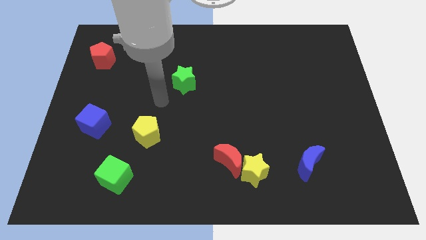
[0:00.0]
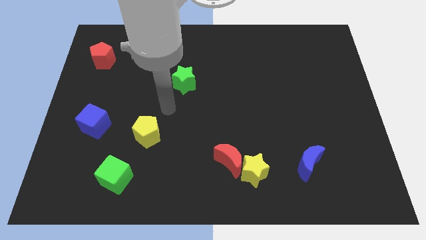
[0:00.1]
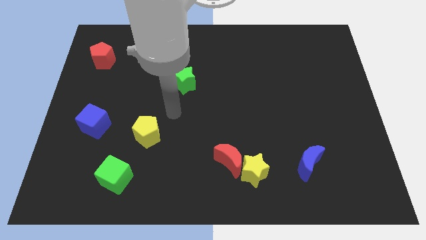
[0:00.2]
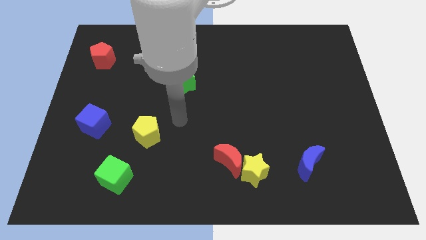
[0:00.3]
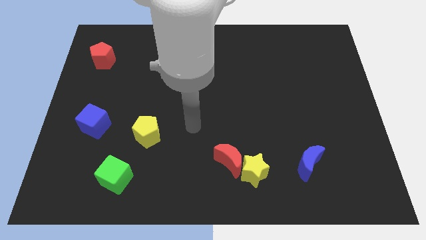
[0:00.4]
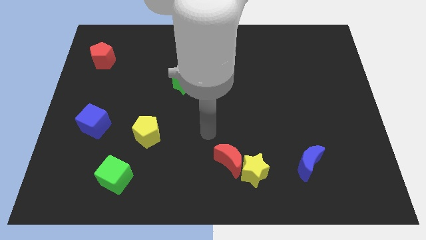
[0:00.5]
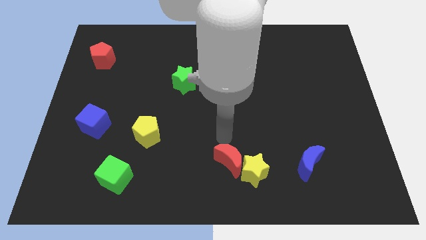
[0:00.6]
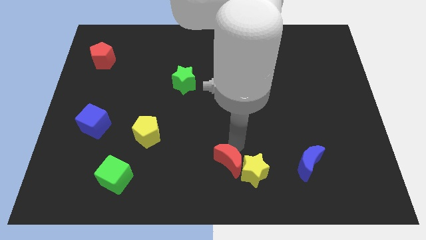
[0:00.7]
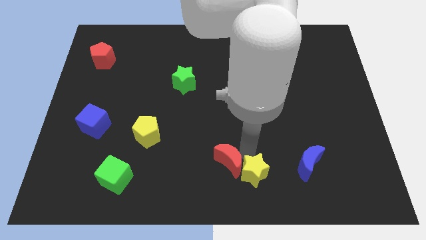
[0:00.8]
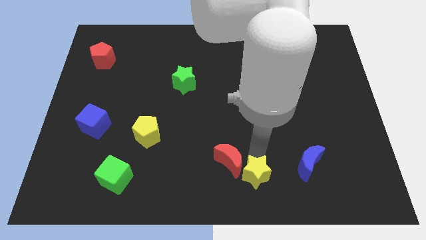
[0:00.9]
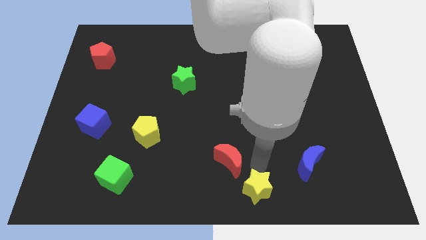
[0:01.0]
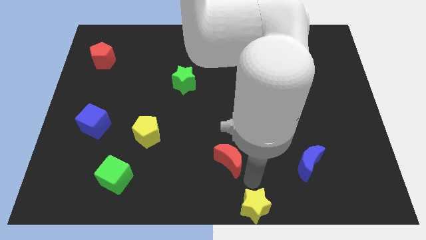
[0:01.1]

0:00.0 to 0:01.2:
pull the red moon apart from the yellow star

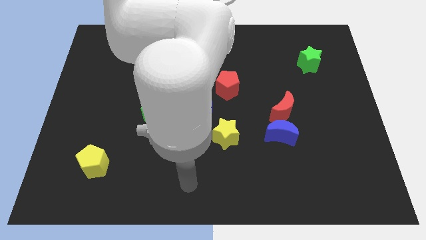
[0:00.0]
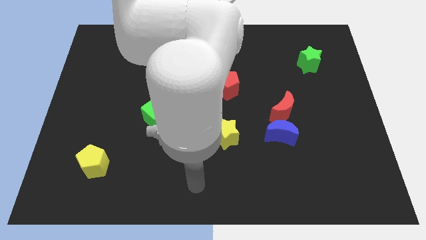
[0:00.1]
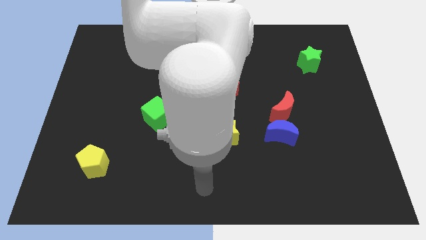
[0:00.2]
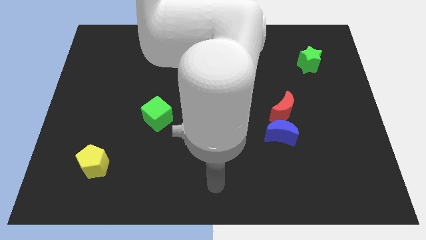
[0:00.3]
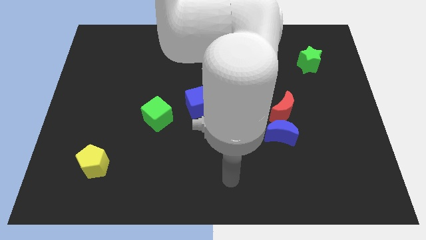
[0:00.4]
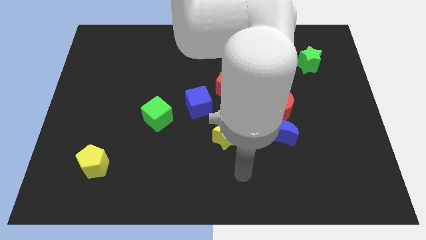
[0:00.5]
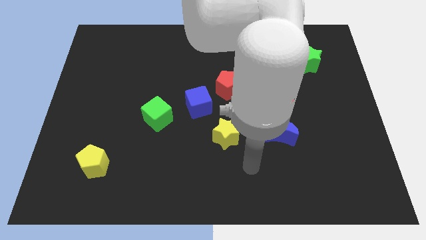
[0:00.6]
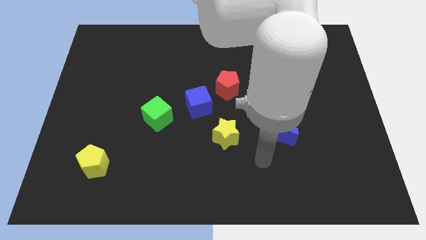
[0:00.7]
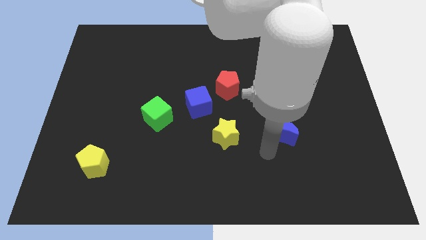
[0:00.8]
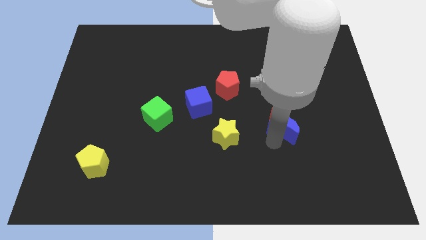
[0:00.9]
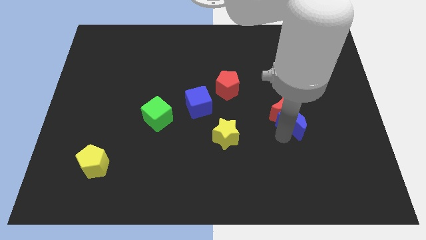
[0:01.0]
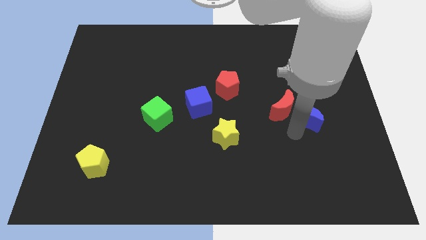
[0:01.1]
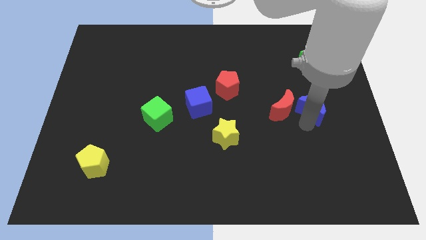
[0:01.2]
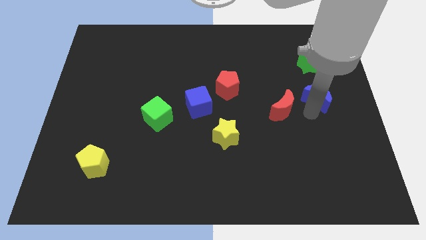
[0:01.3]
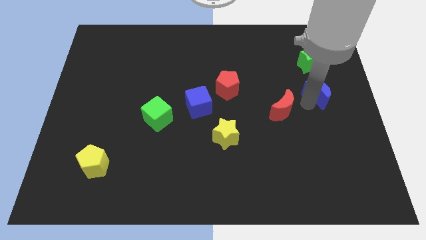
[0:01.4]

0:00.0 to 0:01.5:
pull the red moon apart from the blue moon

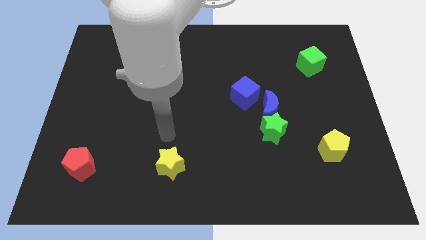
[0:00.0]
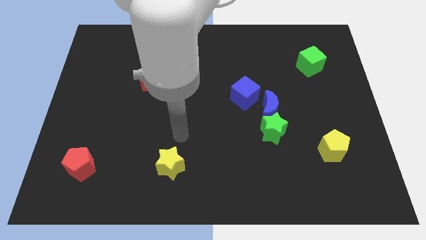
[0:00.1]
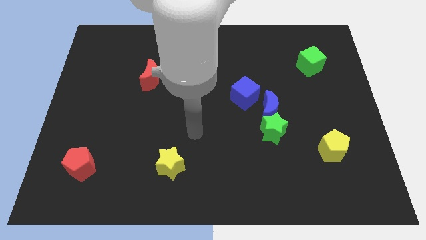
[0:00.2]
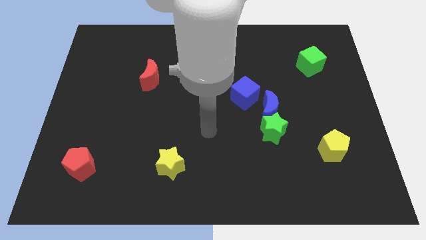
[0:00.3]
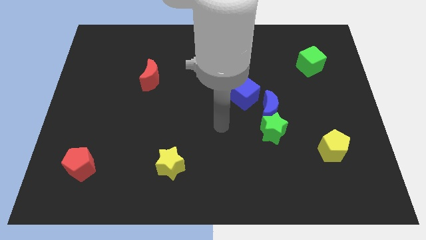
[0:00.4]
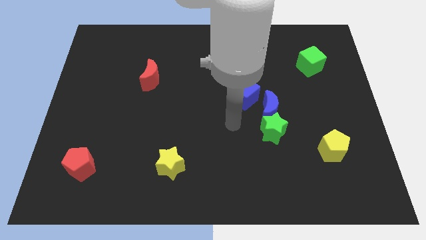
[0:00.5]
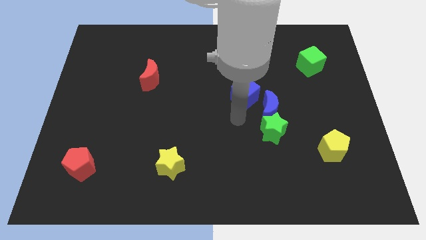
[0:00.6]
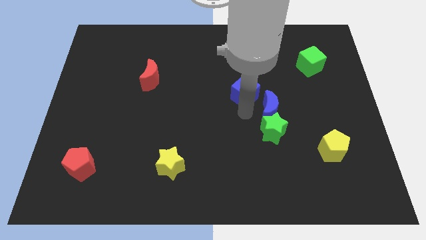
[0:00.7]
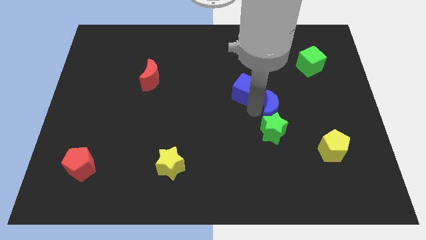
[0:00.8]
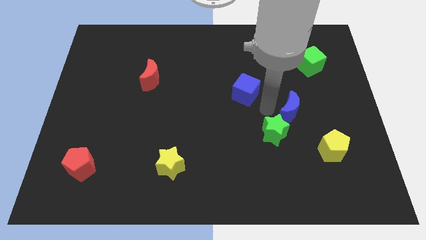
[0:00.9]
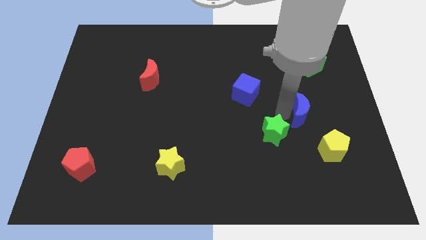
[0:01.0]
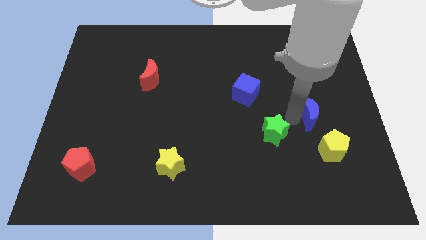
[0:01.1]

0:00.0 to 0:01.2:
pull the green star apart from the blue moon

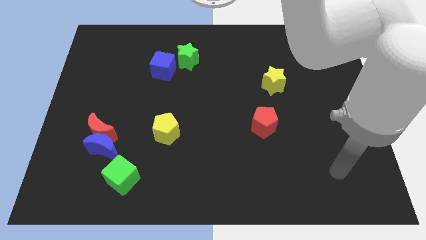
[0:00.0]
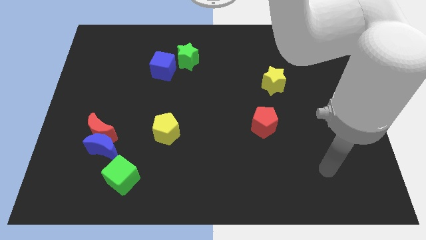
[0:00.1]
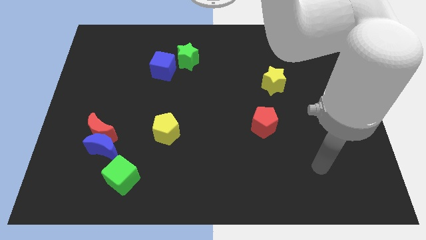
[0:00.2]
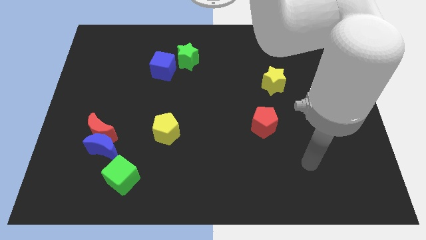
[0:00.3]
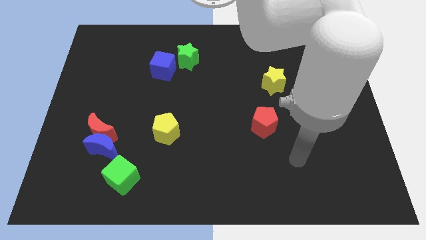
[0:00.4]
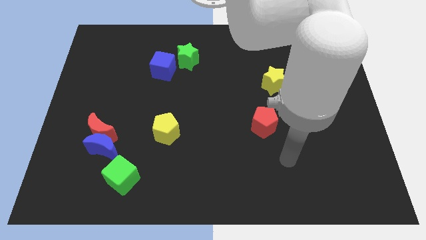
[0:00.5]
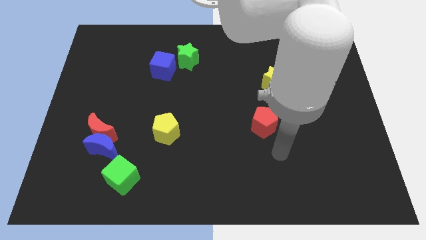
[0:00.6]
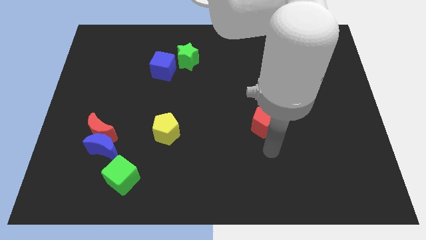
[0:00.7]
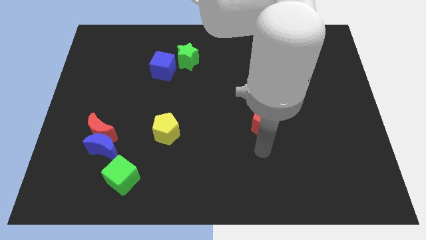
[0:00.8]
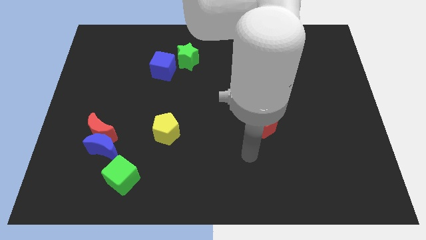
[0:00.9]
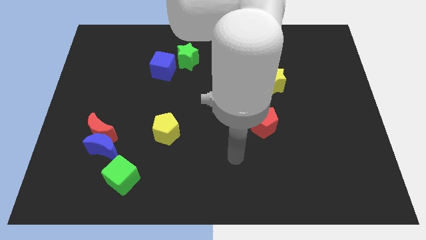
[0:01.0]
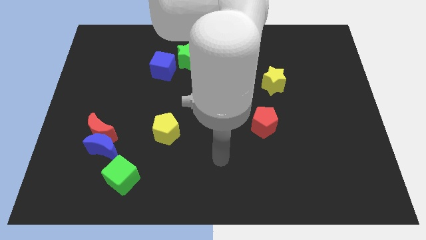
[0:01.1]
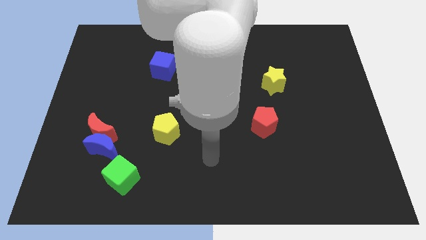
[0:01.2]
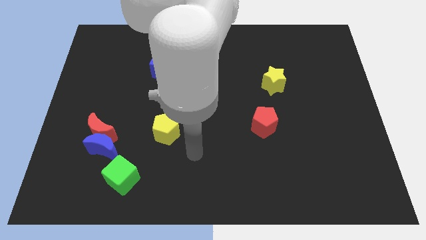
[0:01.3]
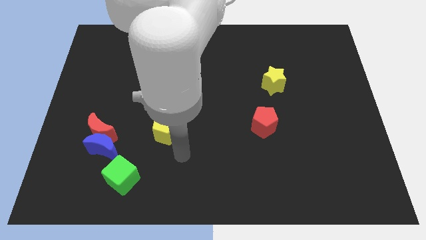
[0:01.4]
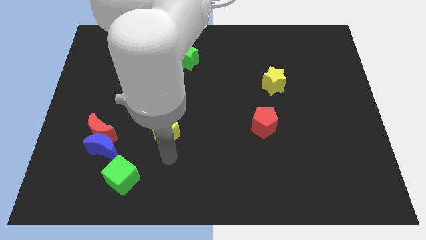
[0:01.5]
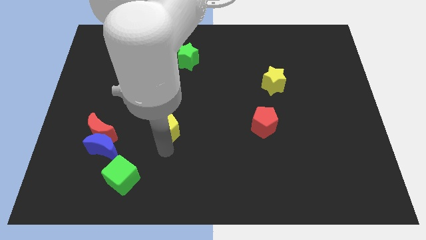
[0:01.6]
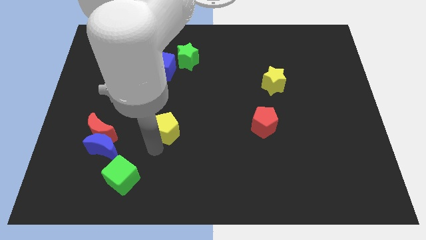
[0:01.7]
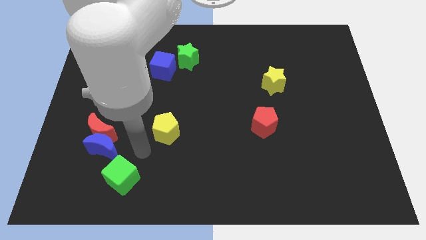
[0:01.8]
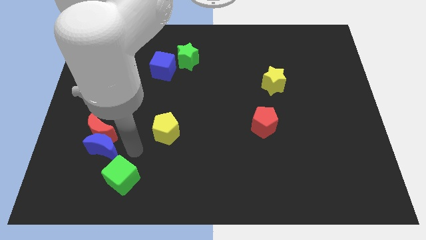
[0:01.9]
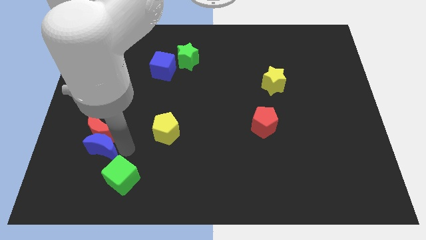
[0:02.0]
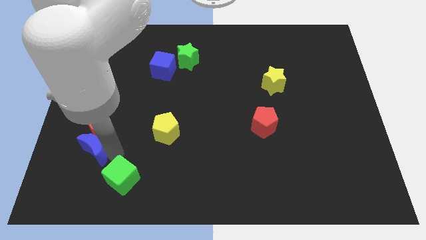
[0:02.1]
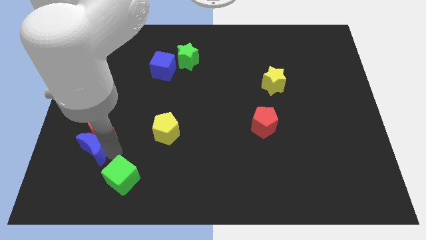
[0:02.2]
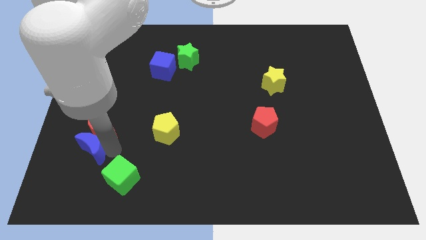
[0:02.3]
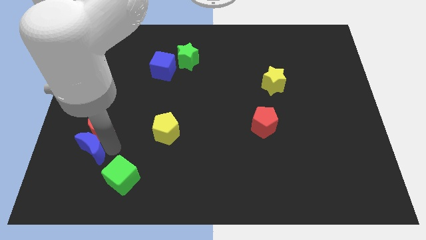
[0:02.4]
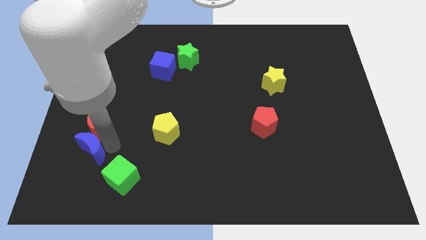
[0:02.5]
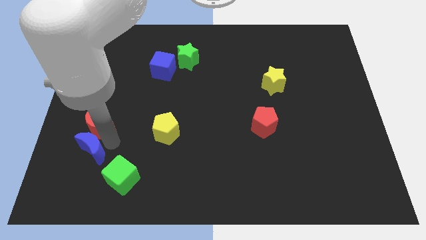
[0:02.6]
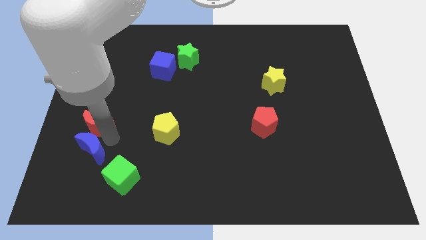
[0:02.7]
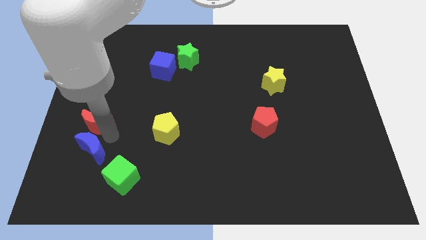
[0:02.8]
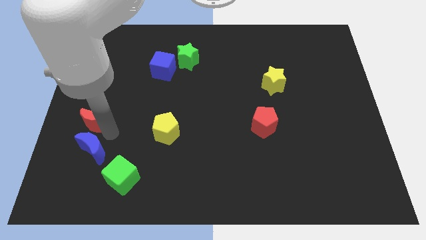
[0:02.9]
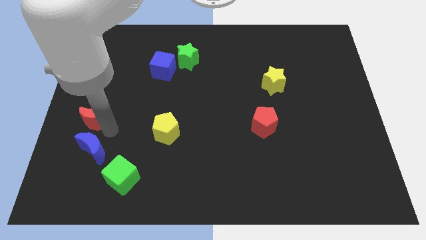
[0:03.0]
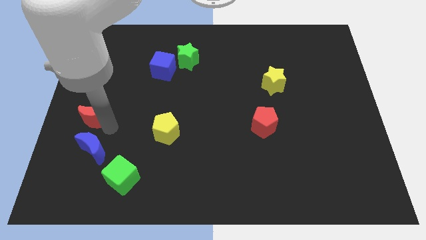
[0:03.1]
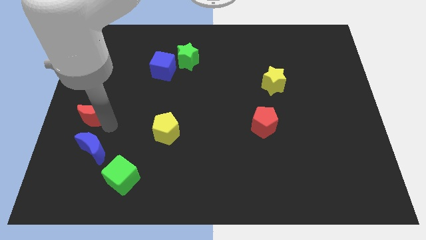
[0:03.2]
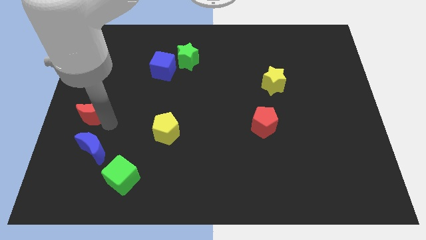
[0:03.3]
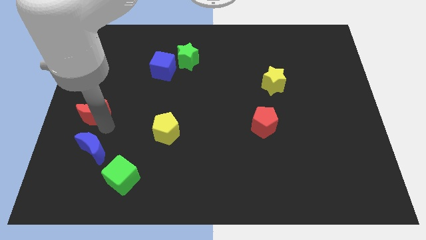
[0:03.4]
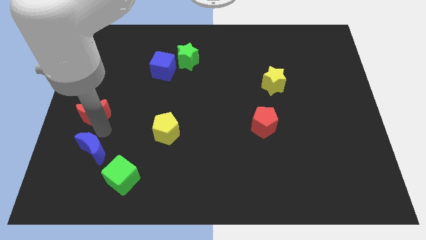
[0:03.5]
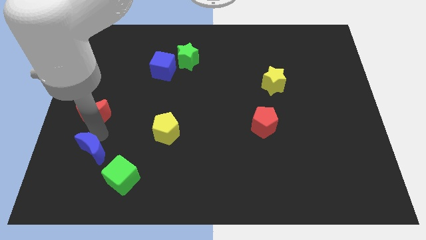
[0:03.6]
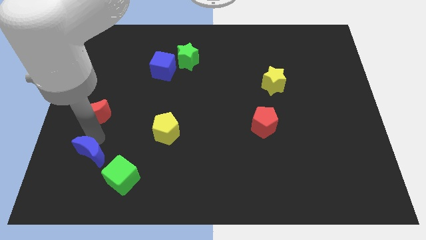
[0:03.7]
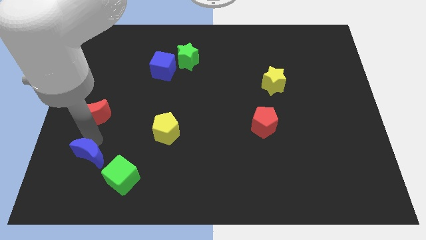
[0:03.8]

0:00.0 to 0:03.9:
move the red moon away from the blue moon

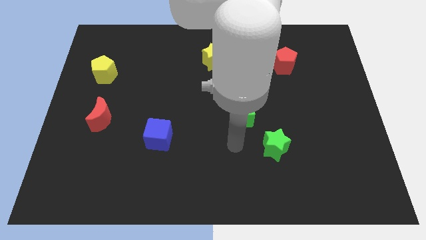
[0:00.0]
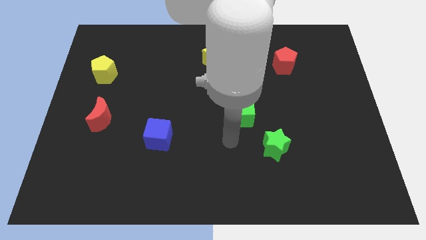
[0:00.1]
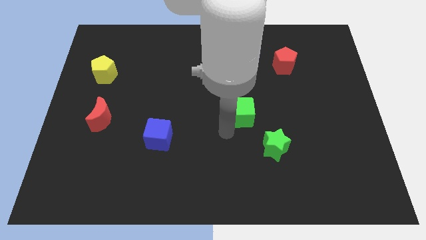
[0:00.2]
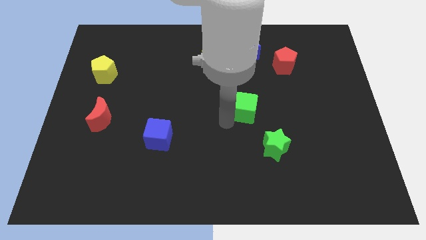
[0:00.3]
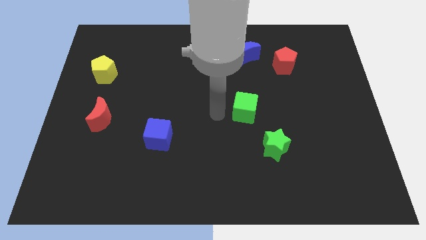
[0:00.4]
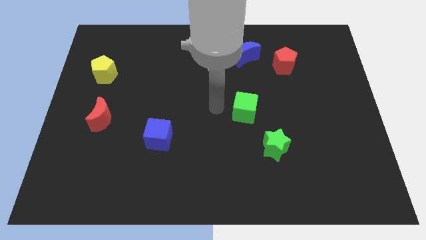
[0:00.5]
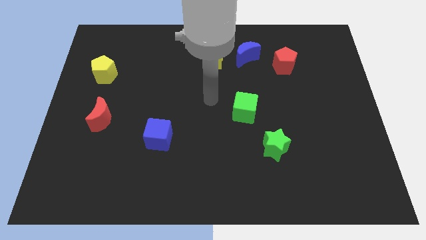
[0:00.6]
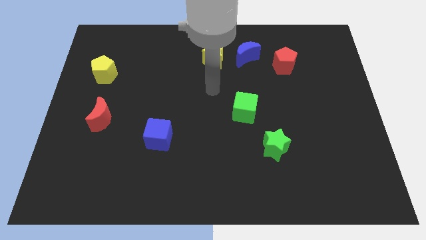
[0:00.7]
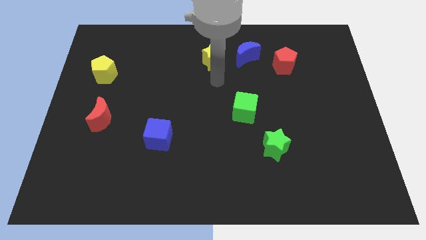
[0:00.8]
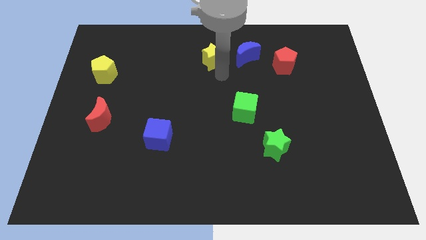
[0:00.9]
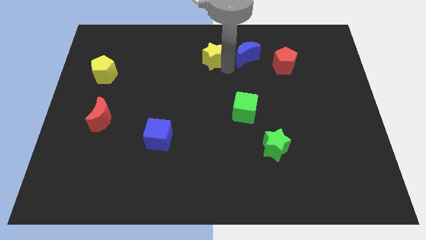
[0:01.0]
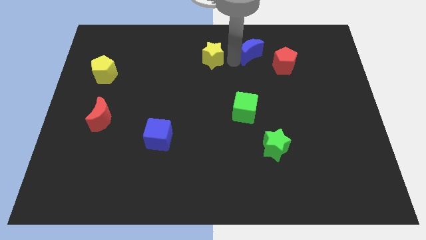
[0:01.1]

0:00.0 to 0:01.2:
move the yellow star away from the blue moon

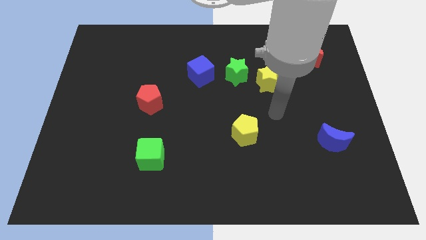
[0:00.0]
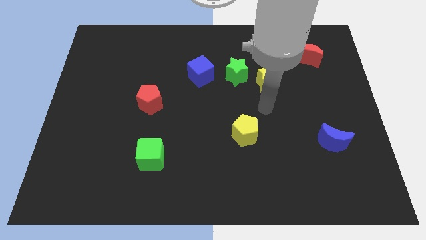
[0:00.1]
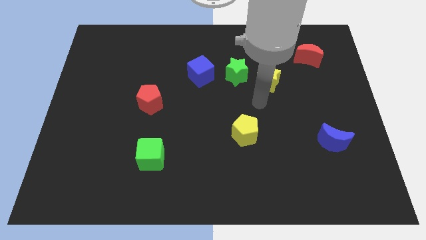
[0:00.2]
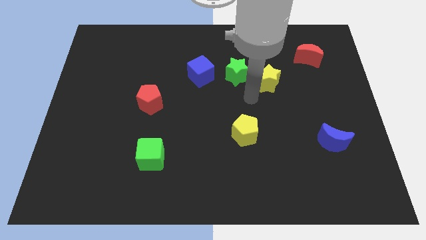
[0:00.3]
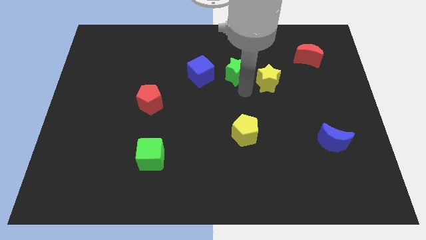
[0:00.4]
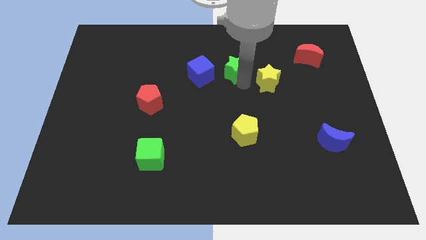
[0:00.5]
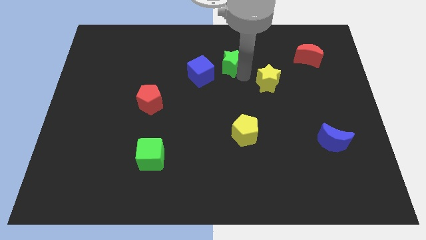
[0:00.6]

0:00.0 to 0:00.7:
separate the yellow star from the green star
